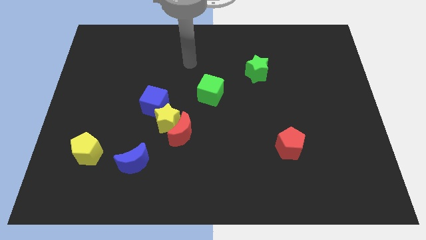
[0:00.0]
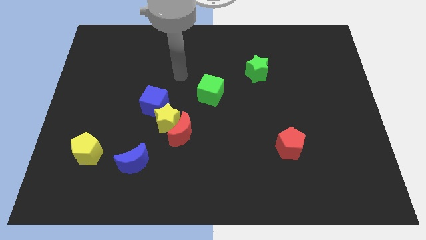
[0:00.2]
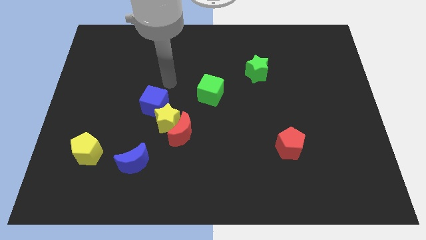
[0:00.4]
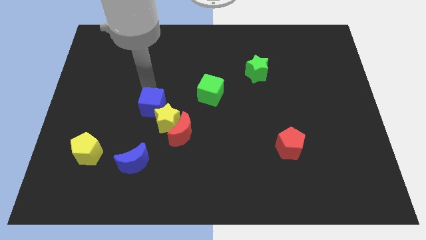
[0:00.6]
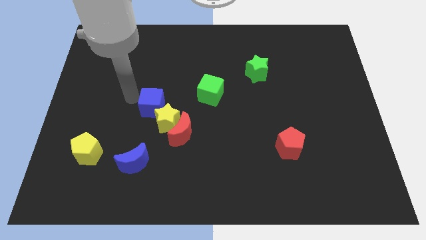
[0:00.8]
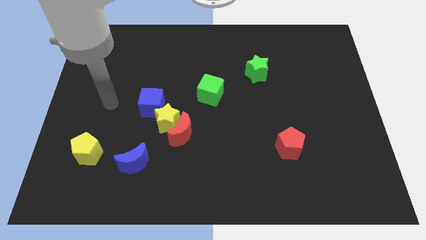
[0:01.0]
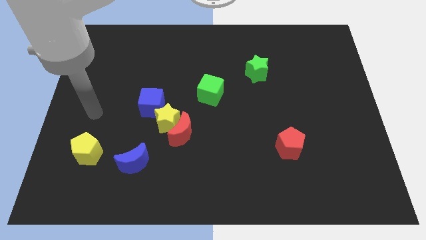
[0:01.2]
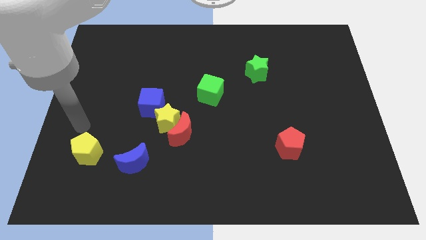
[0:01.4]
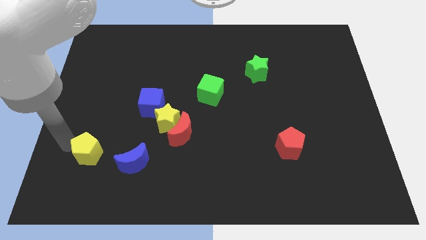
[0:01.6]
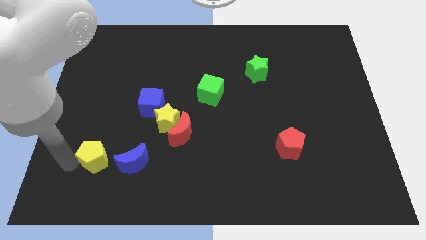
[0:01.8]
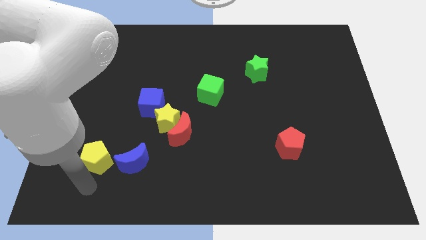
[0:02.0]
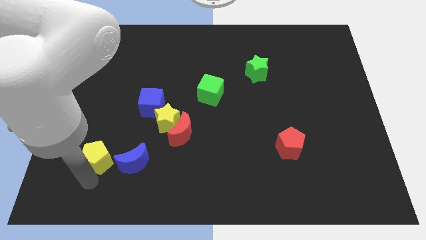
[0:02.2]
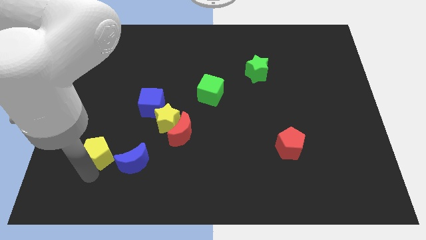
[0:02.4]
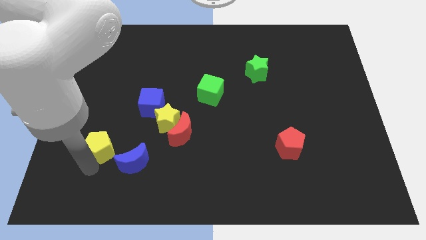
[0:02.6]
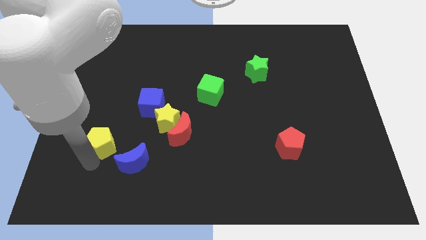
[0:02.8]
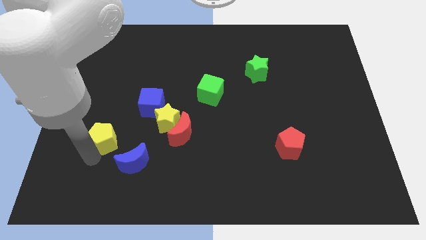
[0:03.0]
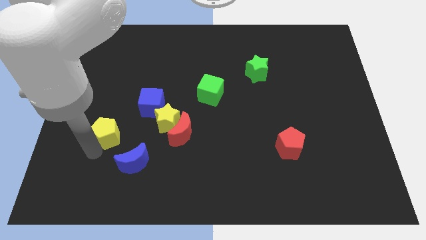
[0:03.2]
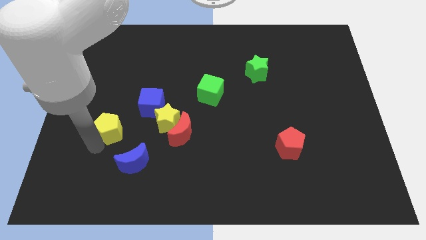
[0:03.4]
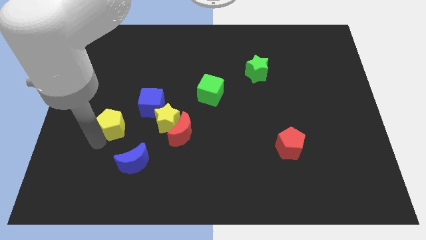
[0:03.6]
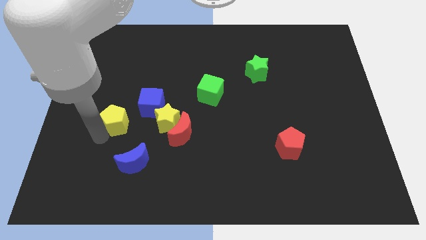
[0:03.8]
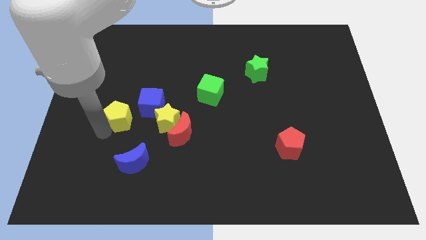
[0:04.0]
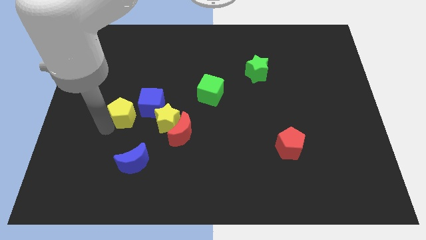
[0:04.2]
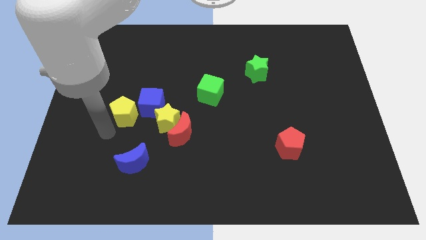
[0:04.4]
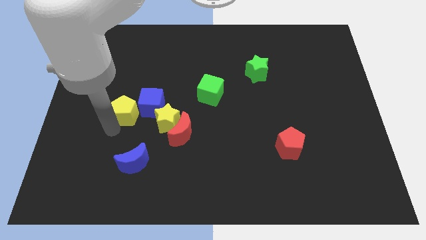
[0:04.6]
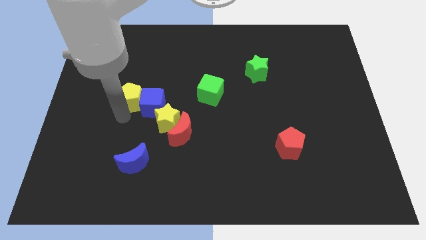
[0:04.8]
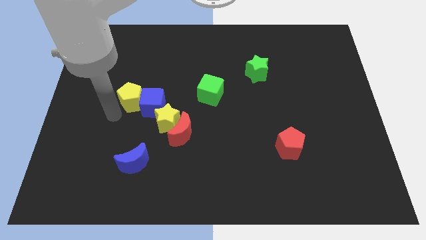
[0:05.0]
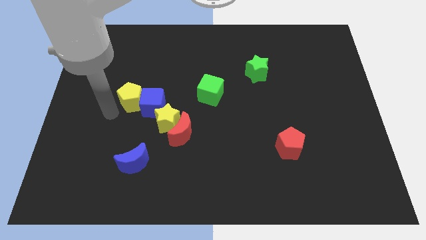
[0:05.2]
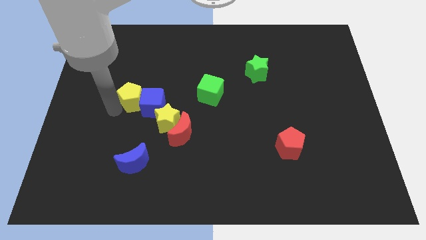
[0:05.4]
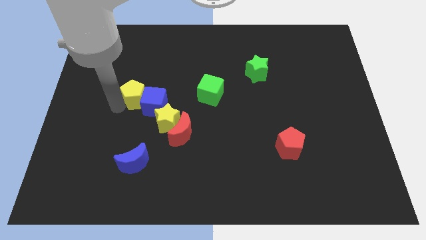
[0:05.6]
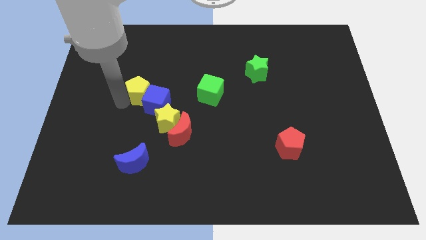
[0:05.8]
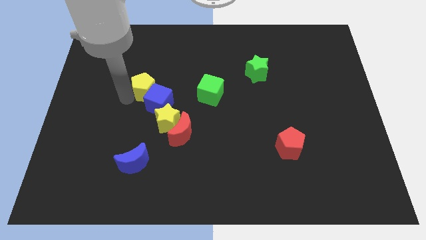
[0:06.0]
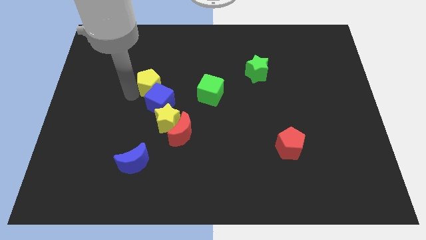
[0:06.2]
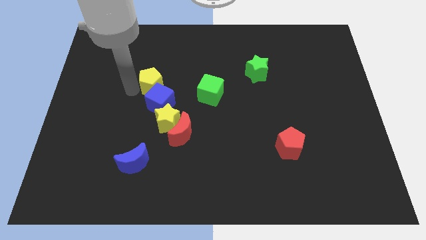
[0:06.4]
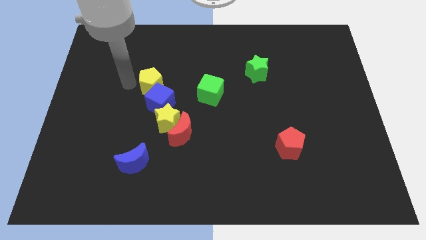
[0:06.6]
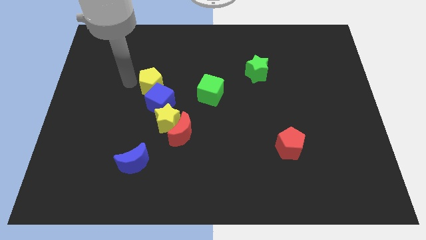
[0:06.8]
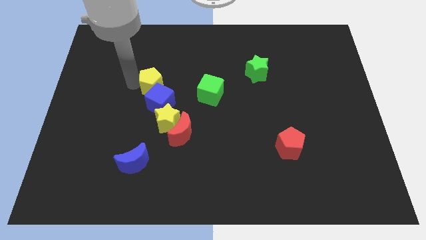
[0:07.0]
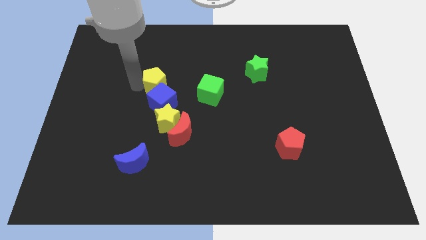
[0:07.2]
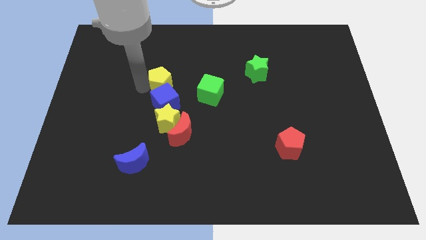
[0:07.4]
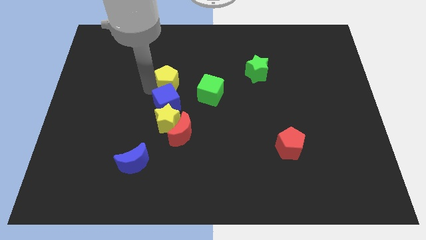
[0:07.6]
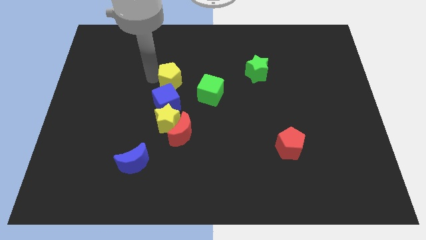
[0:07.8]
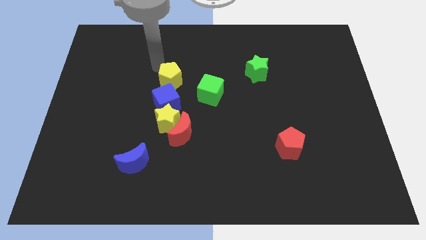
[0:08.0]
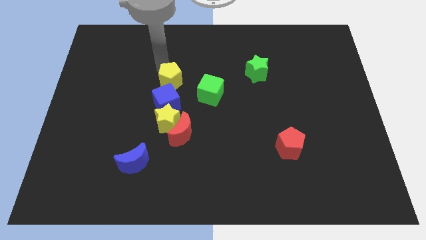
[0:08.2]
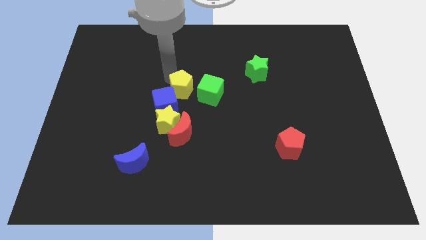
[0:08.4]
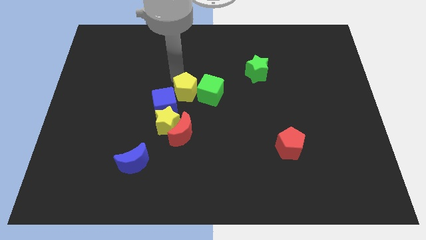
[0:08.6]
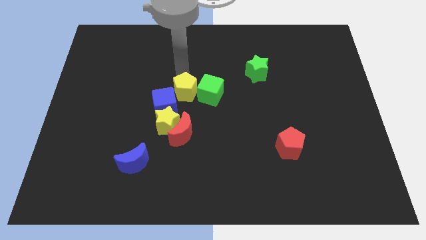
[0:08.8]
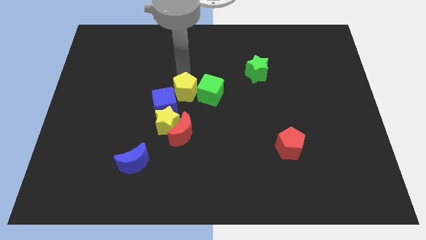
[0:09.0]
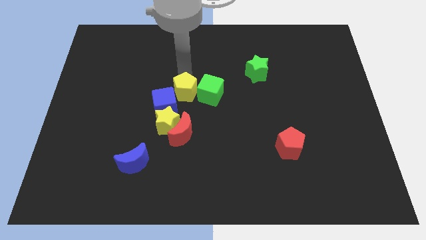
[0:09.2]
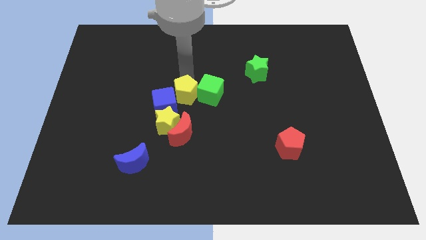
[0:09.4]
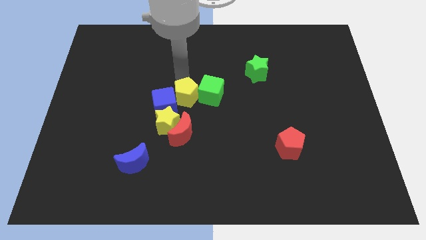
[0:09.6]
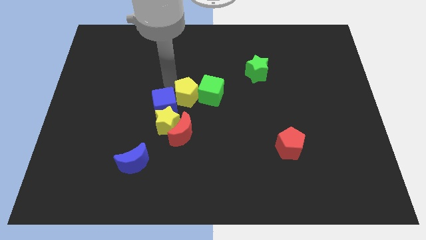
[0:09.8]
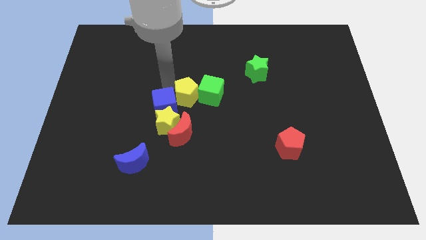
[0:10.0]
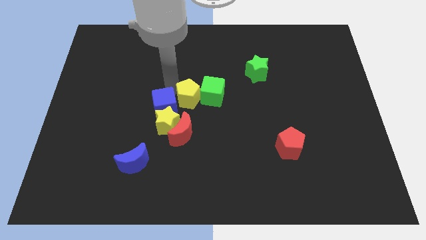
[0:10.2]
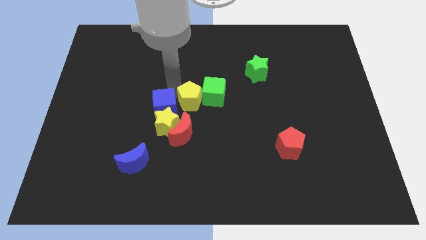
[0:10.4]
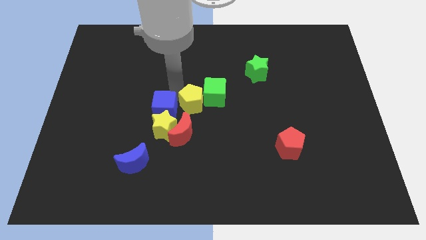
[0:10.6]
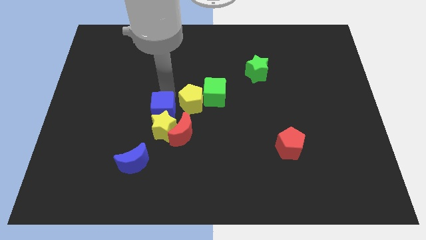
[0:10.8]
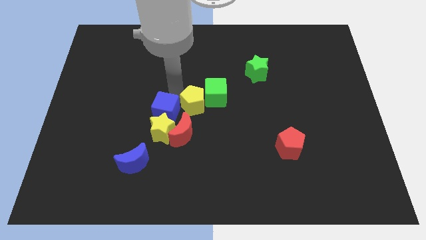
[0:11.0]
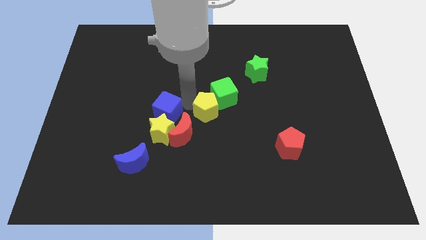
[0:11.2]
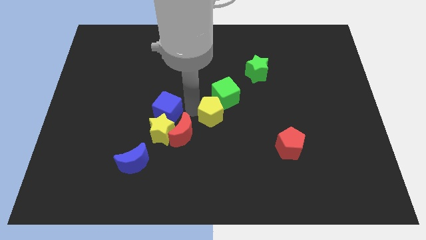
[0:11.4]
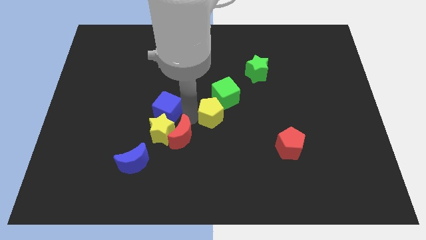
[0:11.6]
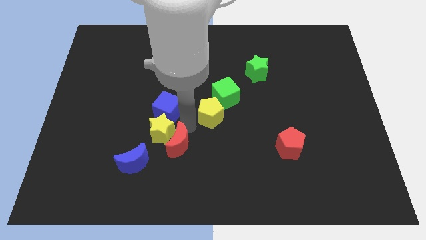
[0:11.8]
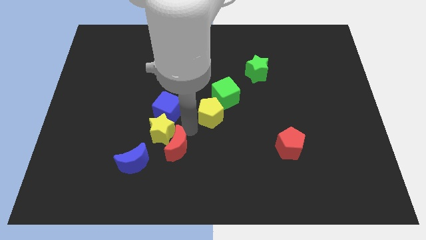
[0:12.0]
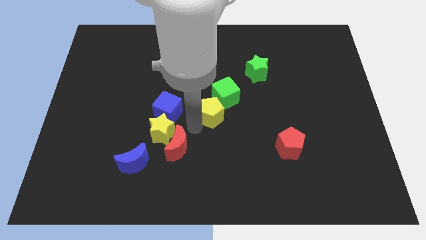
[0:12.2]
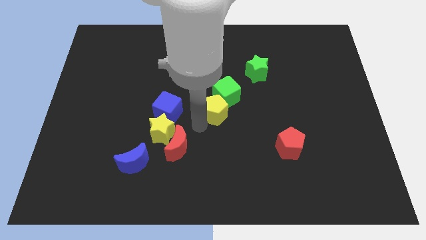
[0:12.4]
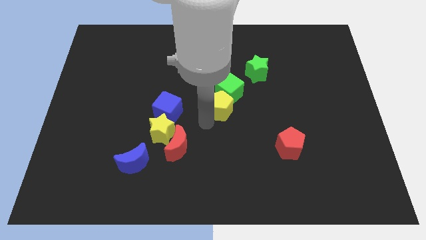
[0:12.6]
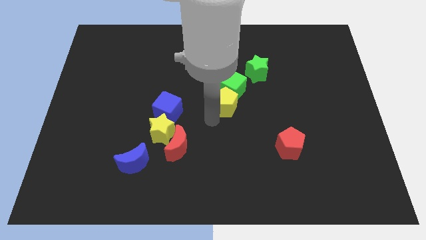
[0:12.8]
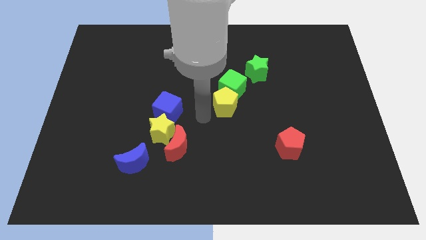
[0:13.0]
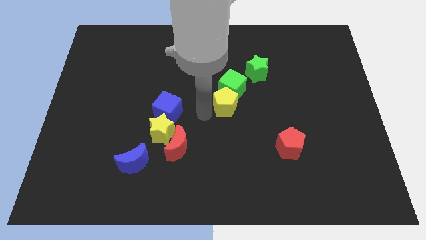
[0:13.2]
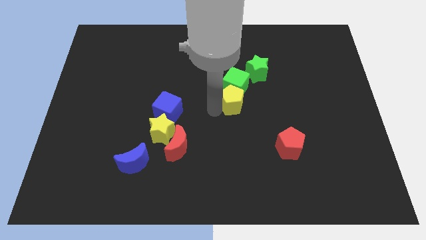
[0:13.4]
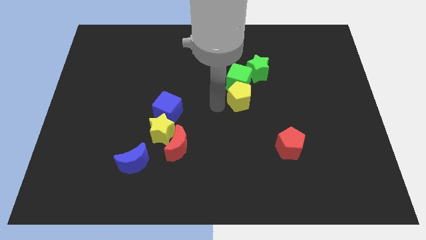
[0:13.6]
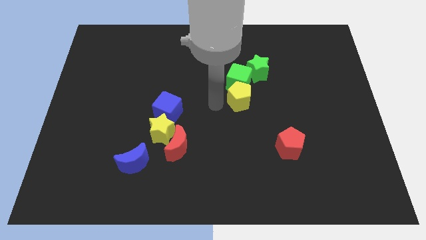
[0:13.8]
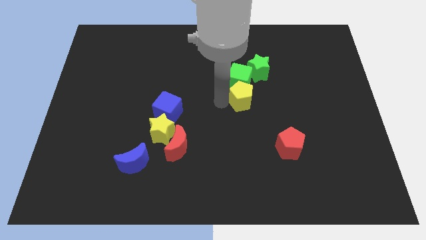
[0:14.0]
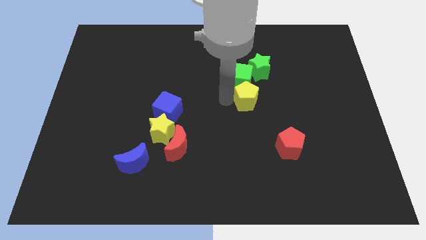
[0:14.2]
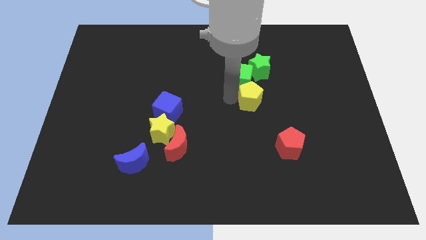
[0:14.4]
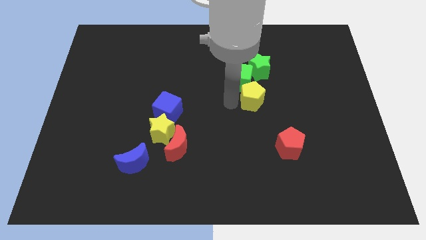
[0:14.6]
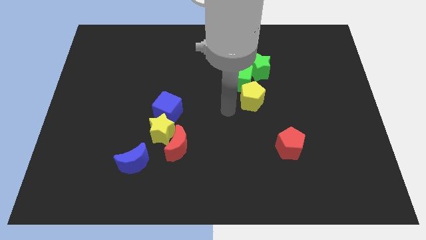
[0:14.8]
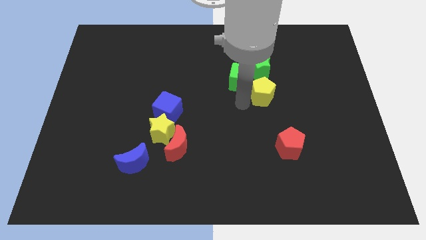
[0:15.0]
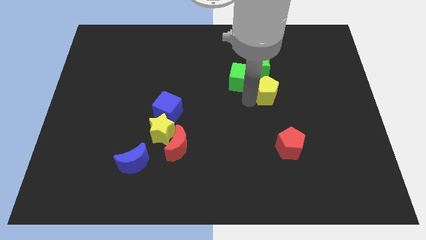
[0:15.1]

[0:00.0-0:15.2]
put the yellow pentagon to the bottom right of the green star
